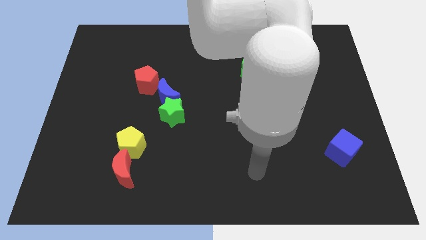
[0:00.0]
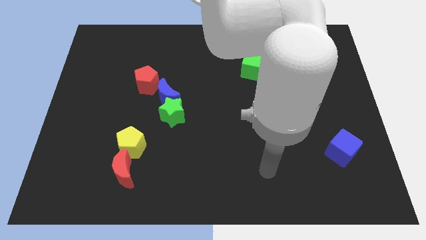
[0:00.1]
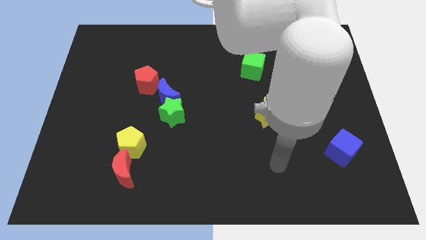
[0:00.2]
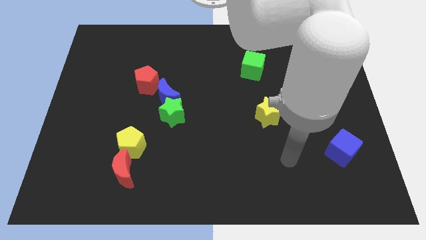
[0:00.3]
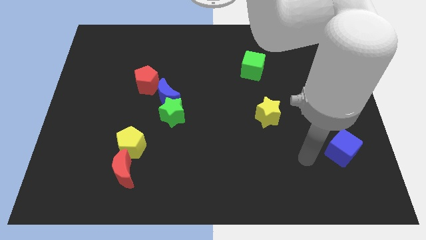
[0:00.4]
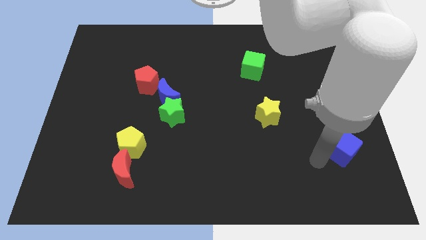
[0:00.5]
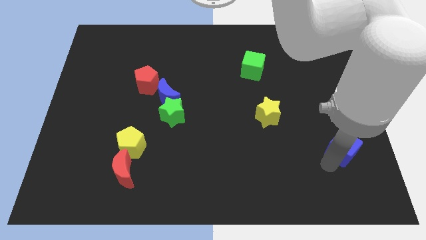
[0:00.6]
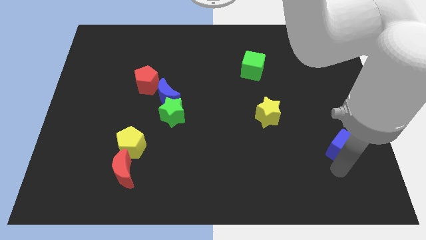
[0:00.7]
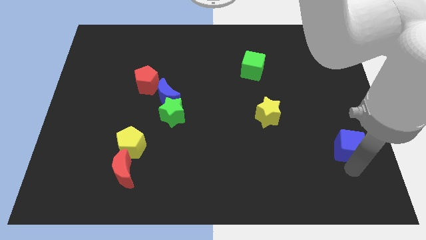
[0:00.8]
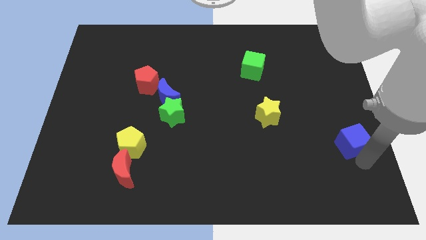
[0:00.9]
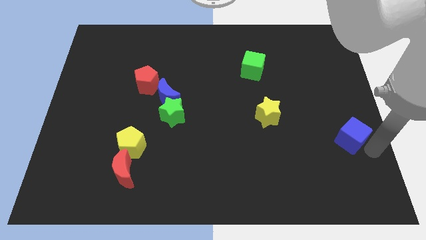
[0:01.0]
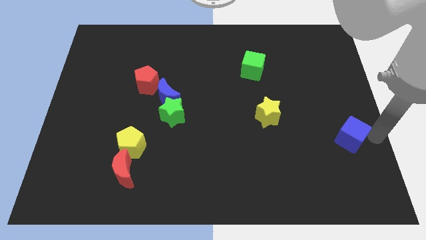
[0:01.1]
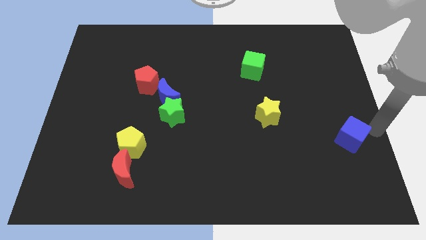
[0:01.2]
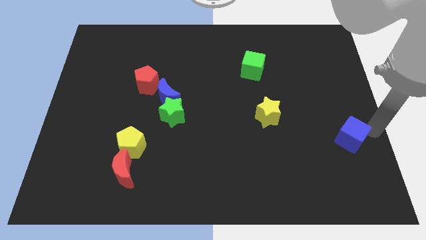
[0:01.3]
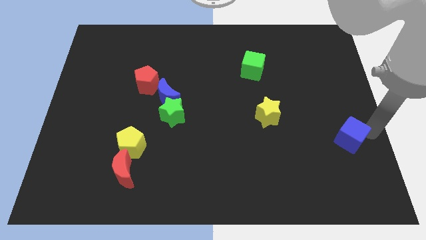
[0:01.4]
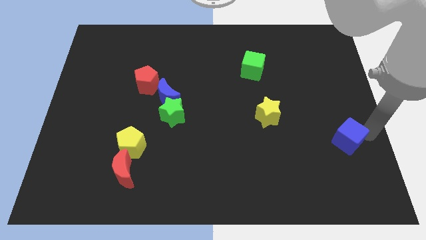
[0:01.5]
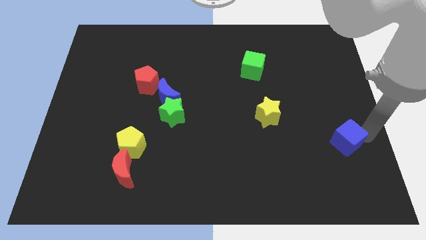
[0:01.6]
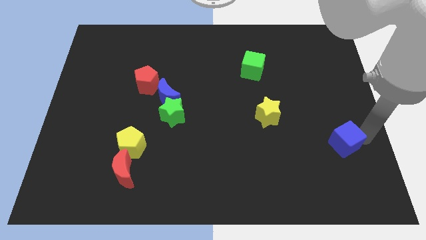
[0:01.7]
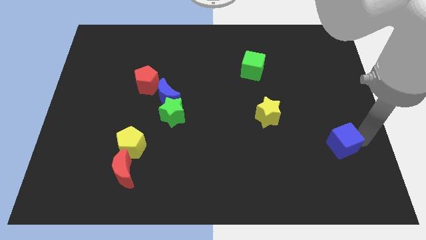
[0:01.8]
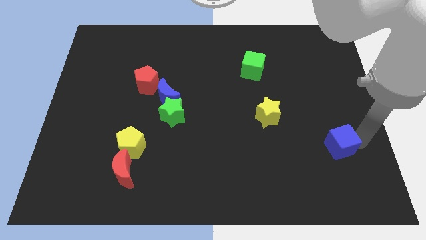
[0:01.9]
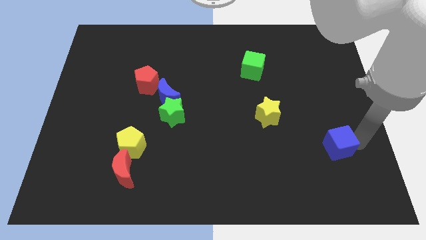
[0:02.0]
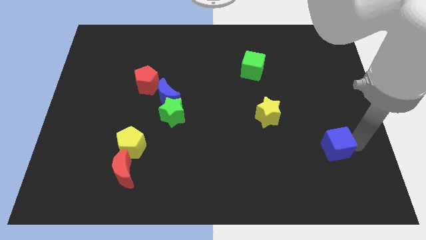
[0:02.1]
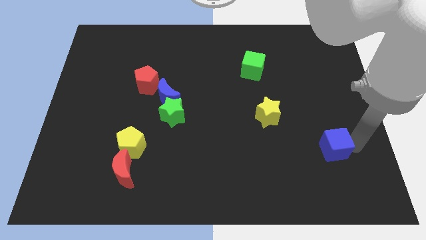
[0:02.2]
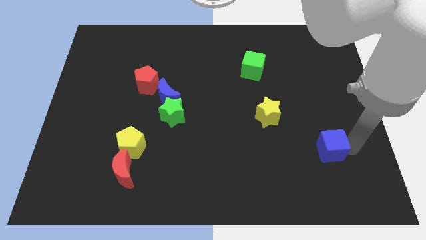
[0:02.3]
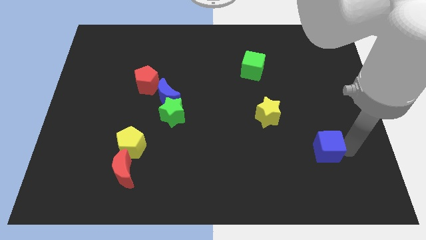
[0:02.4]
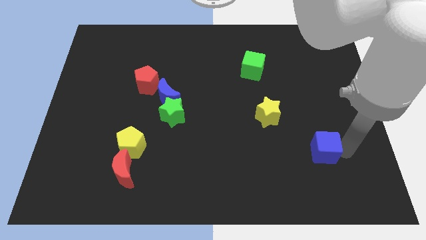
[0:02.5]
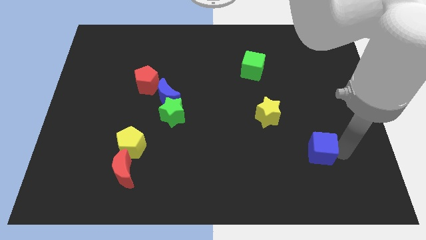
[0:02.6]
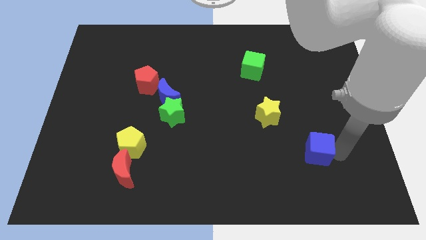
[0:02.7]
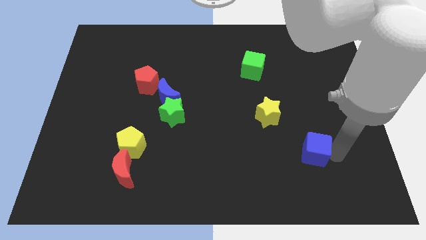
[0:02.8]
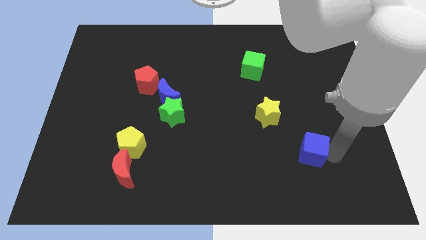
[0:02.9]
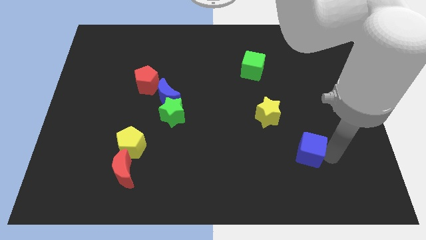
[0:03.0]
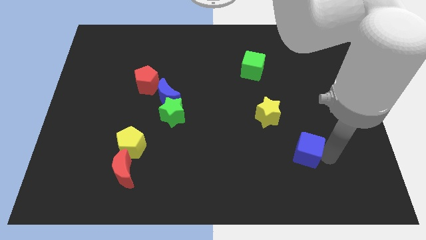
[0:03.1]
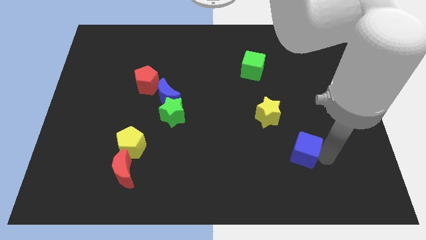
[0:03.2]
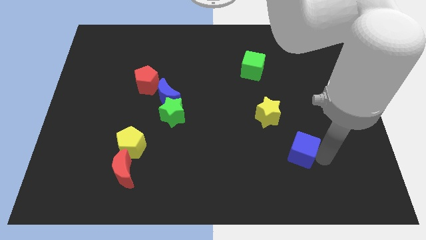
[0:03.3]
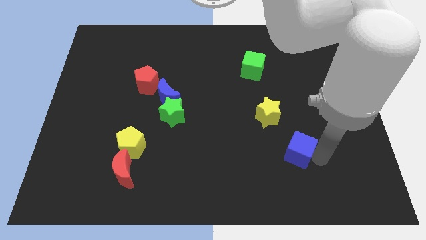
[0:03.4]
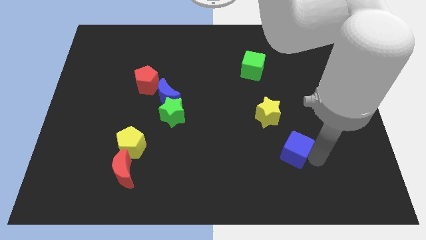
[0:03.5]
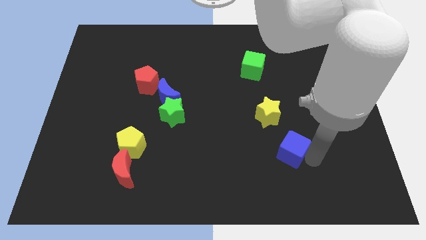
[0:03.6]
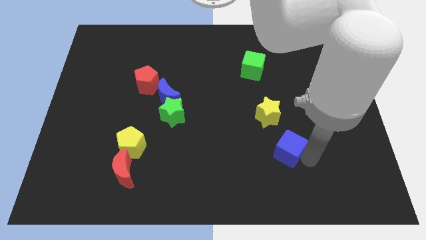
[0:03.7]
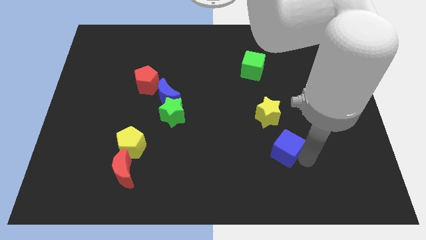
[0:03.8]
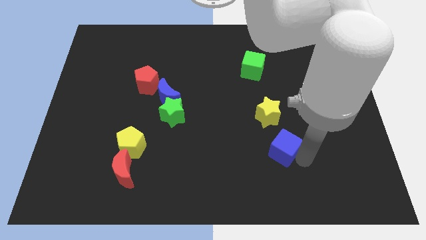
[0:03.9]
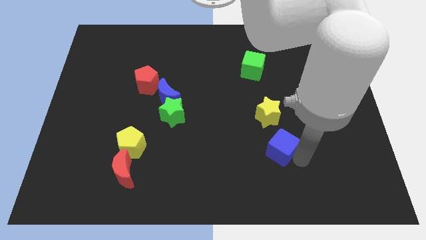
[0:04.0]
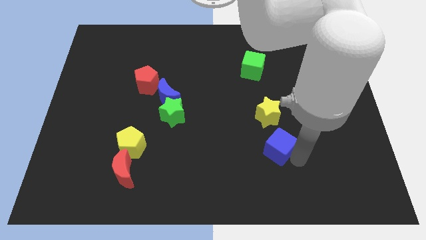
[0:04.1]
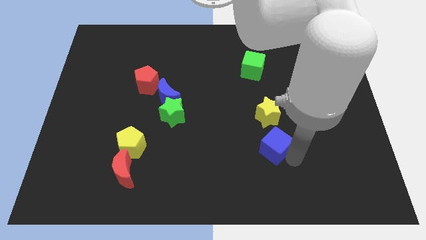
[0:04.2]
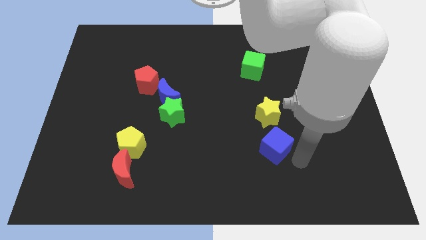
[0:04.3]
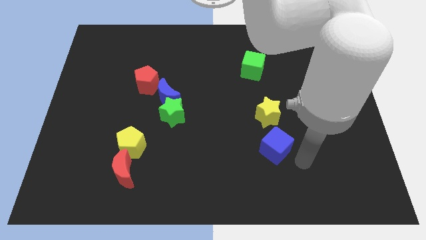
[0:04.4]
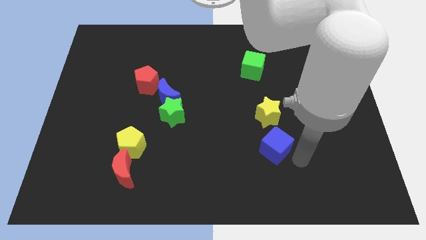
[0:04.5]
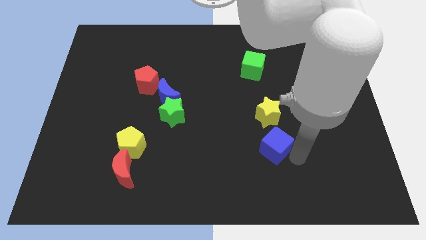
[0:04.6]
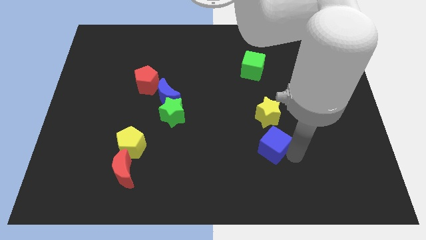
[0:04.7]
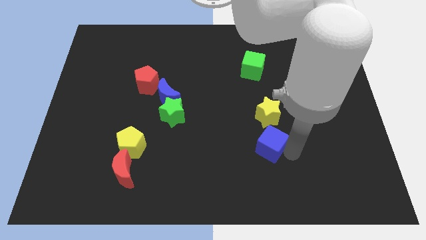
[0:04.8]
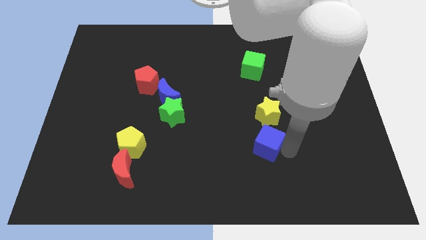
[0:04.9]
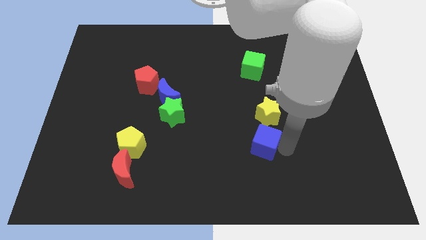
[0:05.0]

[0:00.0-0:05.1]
move the blue cube to the bottom left of the yellow star

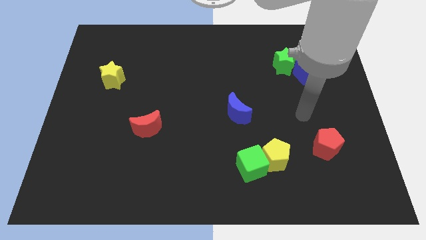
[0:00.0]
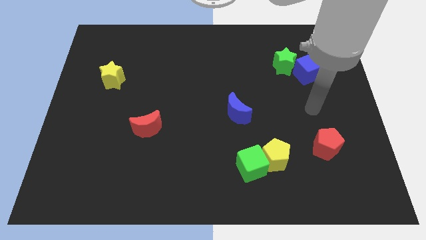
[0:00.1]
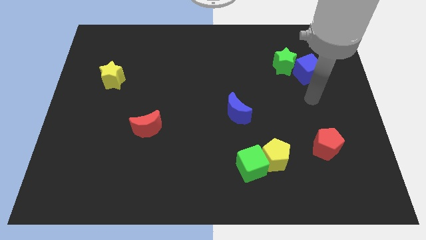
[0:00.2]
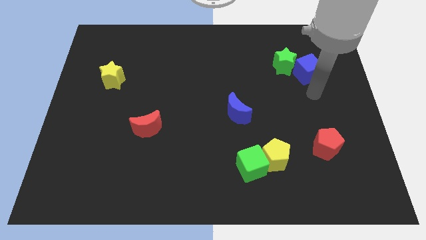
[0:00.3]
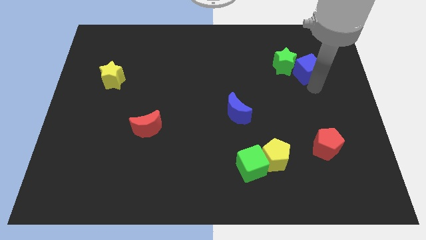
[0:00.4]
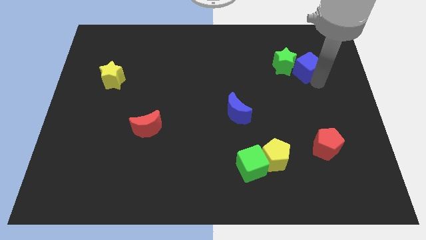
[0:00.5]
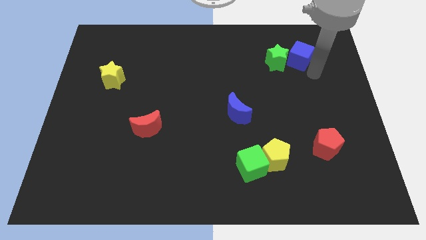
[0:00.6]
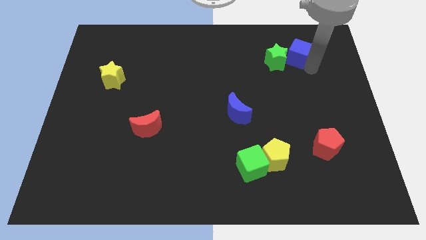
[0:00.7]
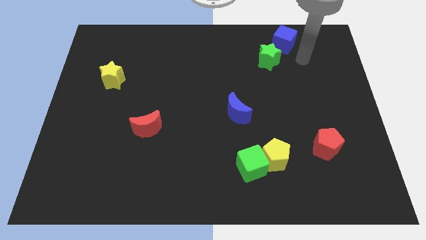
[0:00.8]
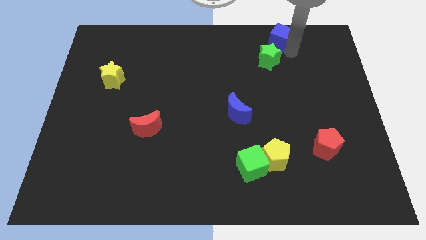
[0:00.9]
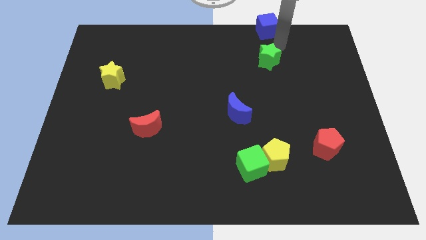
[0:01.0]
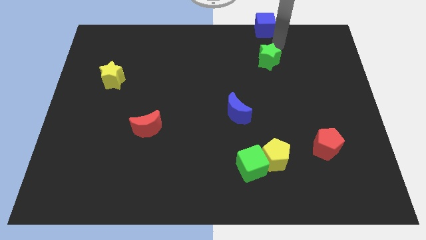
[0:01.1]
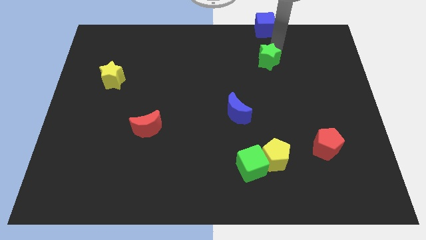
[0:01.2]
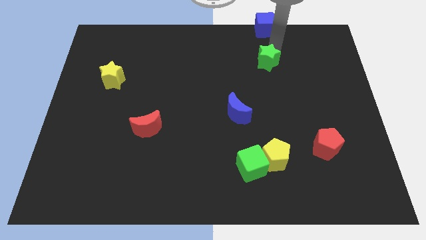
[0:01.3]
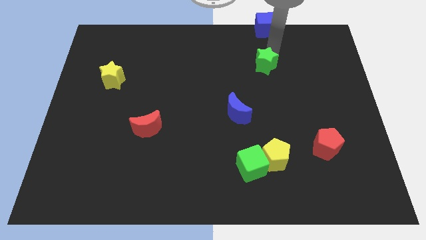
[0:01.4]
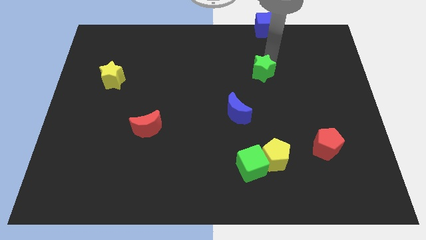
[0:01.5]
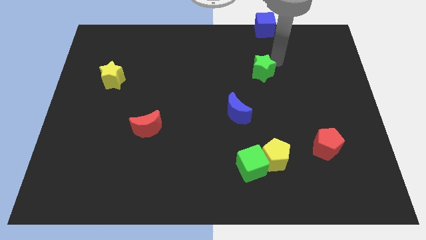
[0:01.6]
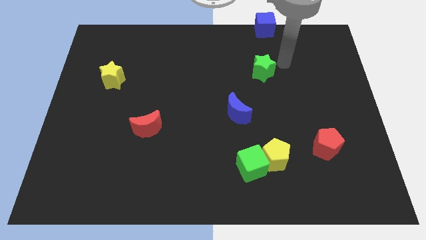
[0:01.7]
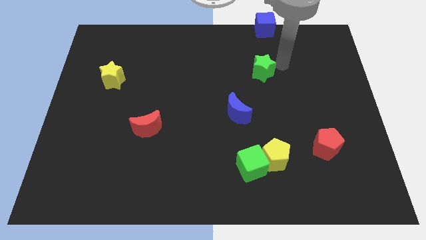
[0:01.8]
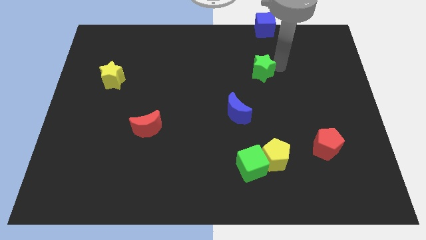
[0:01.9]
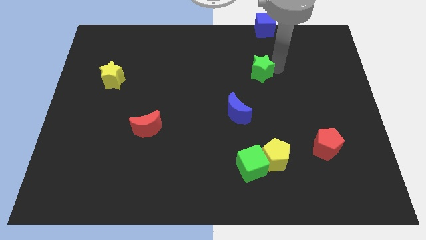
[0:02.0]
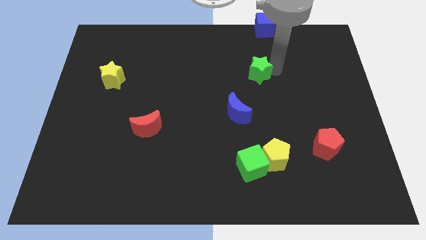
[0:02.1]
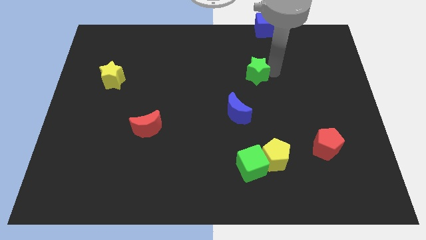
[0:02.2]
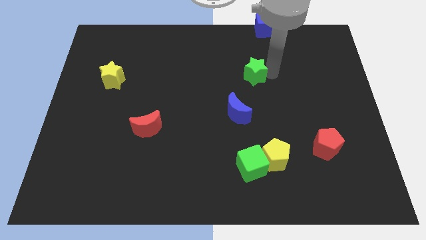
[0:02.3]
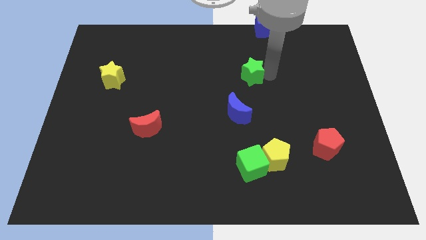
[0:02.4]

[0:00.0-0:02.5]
put the green star to the top of the blue moon

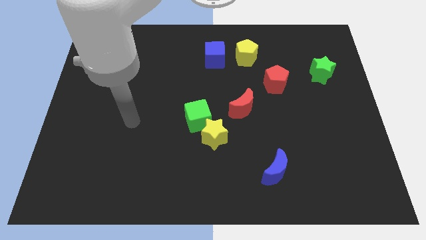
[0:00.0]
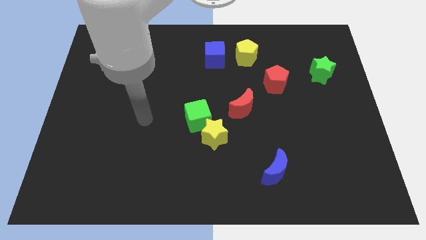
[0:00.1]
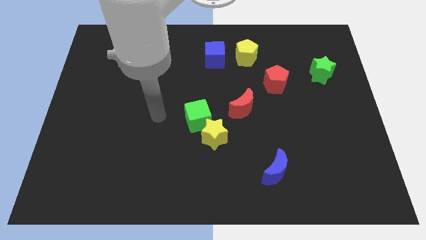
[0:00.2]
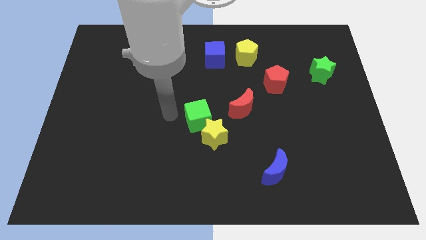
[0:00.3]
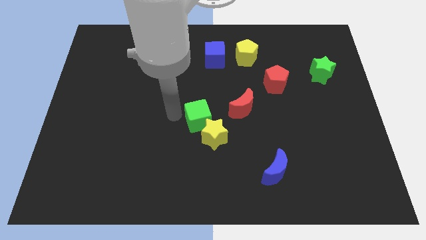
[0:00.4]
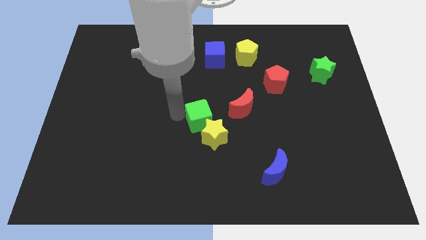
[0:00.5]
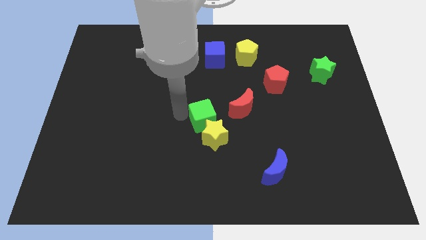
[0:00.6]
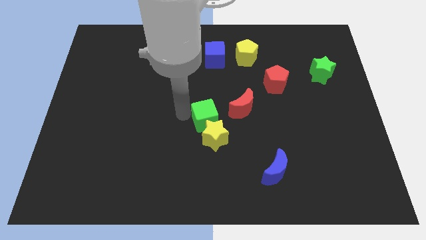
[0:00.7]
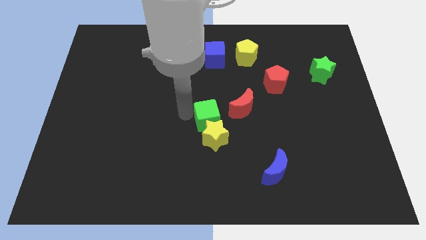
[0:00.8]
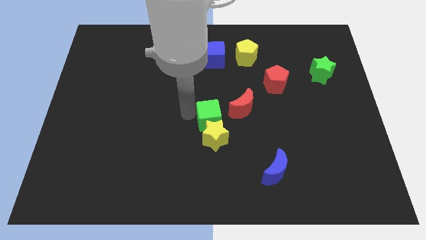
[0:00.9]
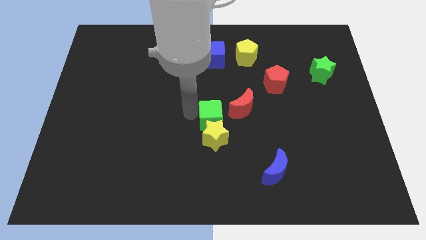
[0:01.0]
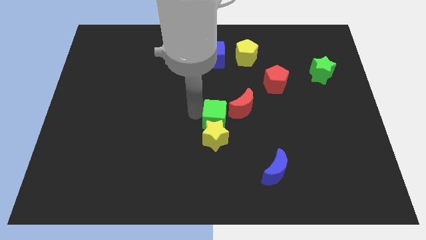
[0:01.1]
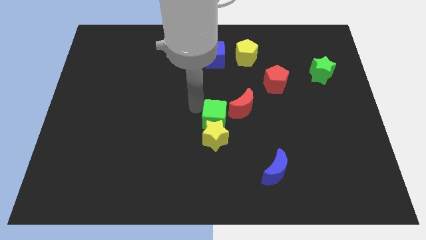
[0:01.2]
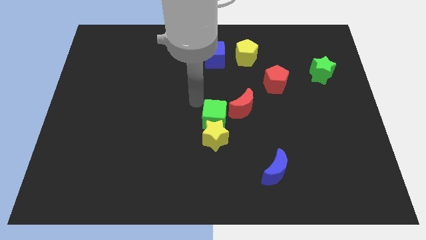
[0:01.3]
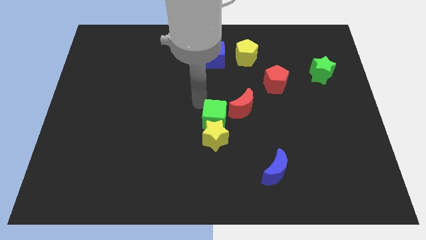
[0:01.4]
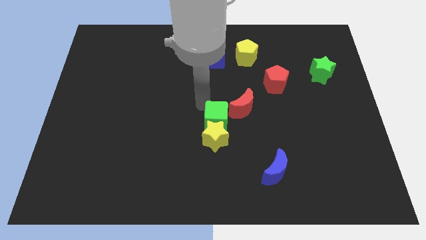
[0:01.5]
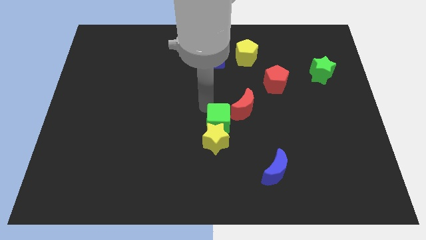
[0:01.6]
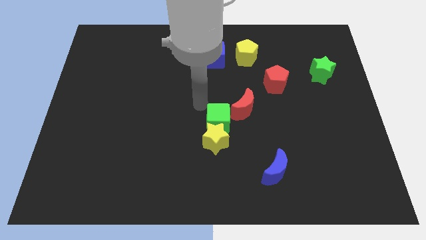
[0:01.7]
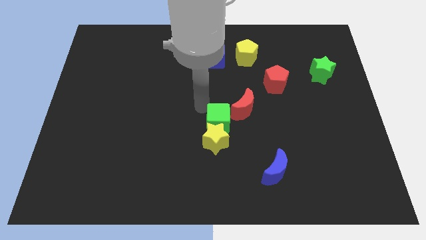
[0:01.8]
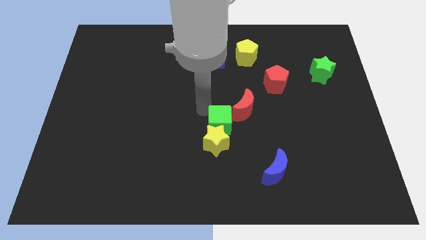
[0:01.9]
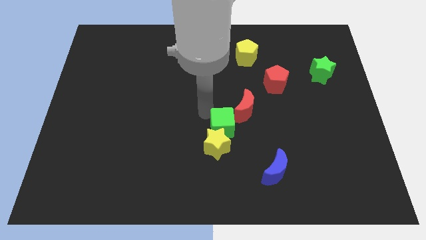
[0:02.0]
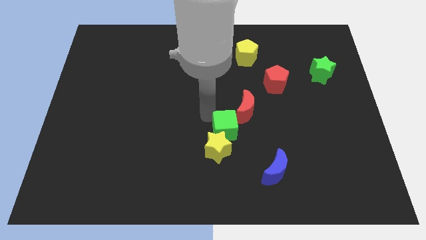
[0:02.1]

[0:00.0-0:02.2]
slide the green cube below the red moon
